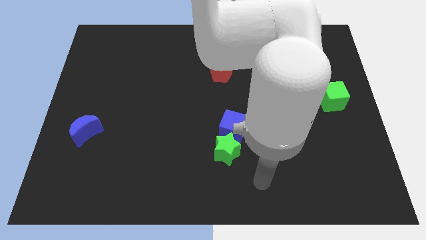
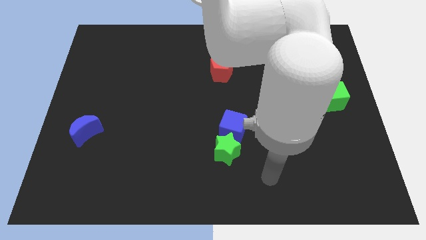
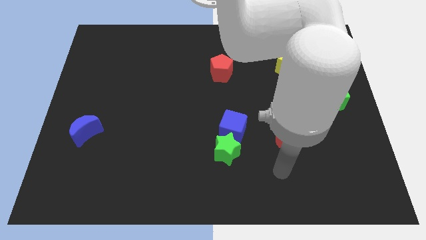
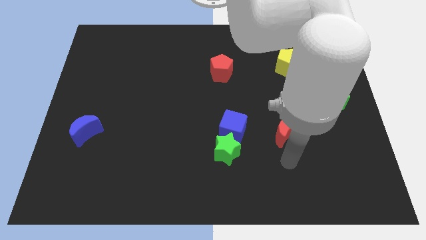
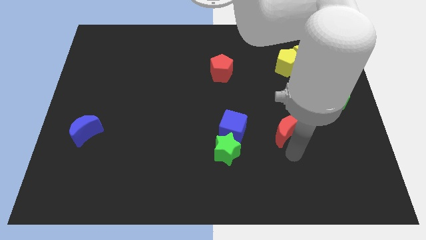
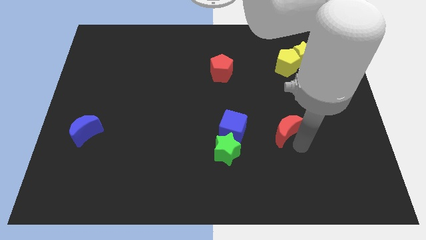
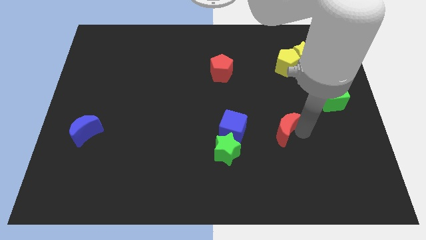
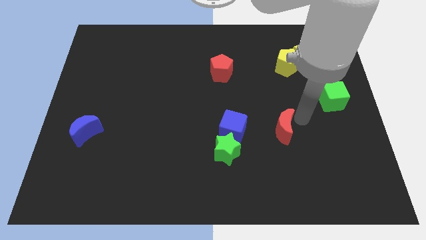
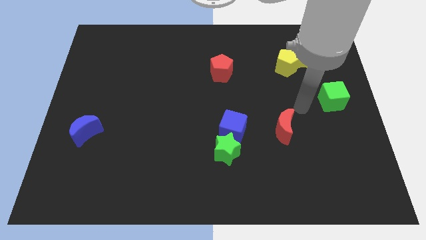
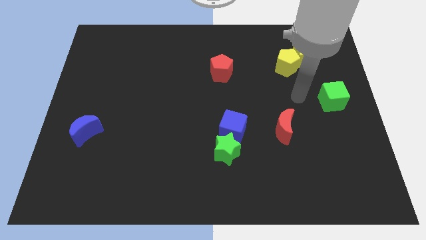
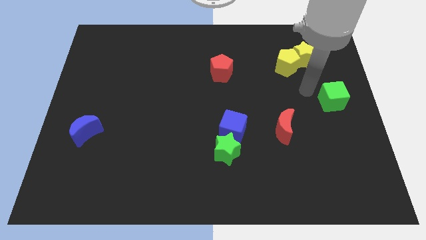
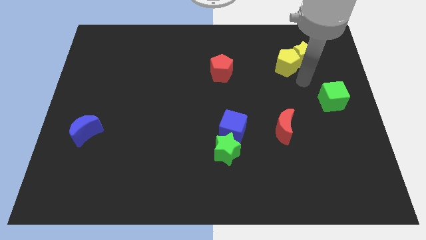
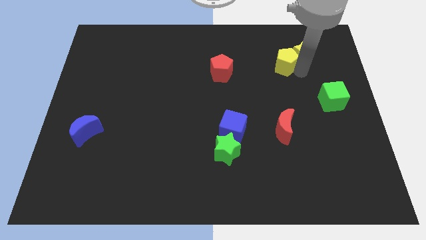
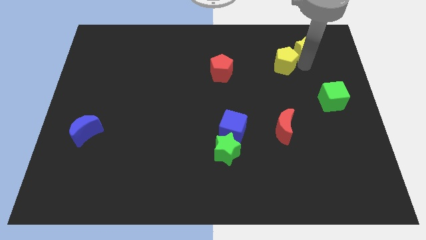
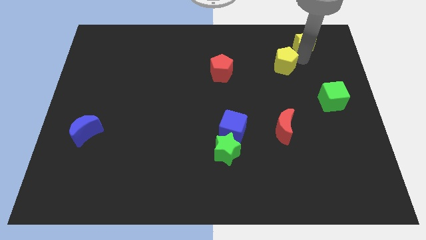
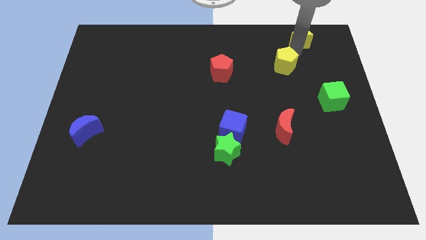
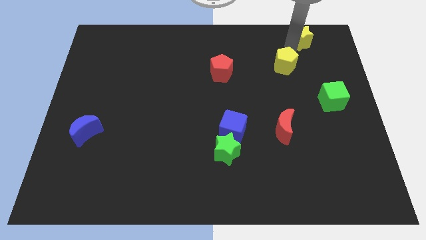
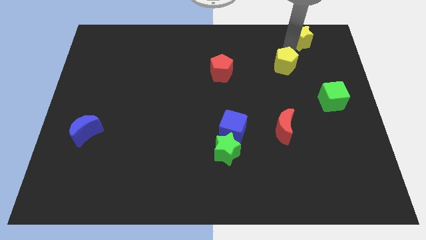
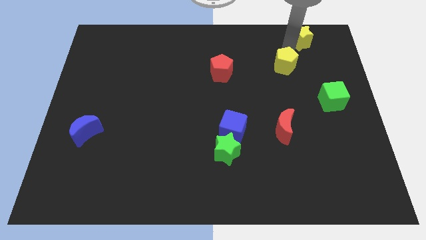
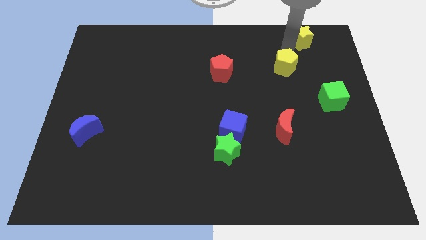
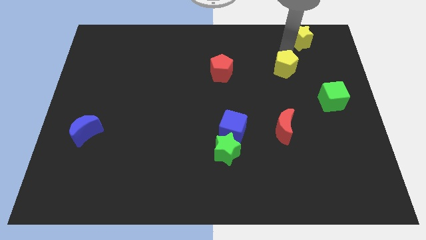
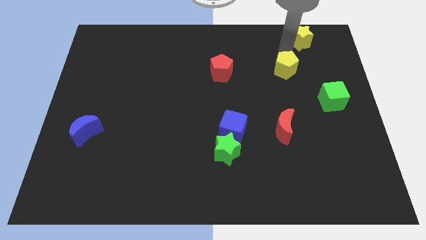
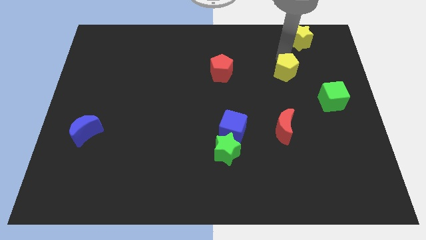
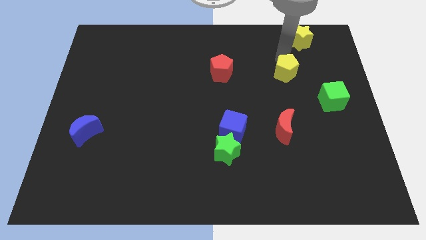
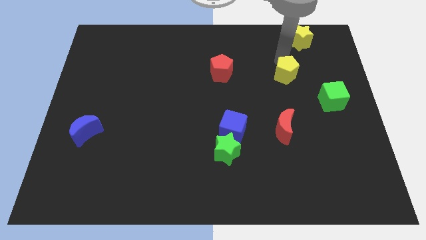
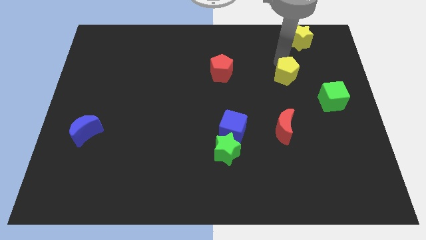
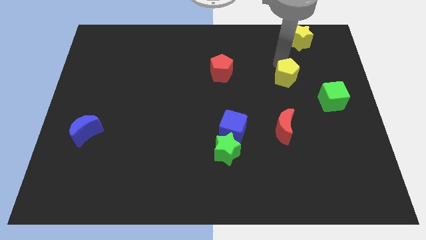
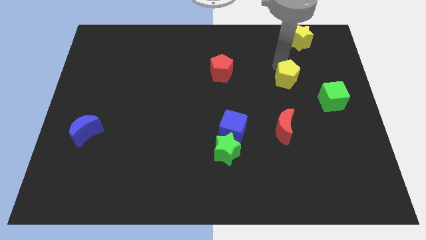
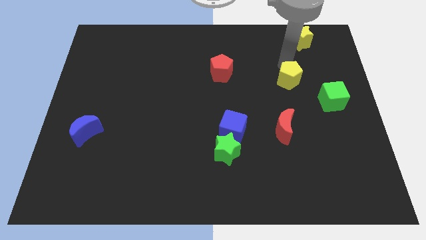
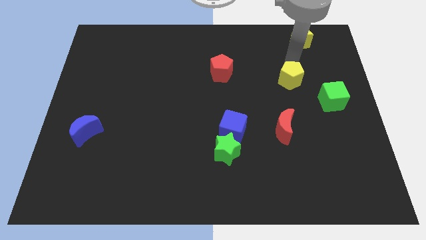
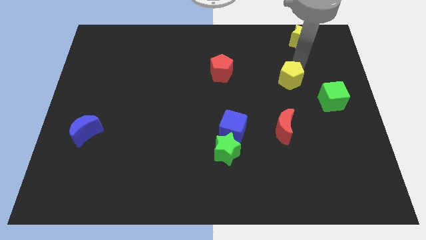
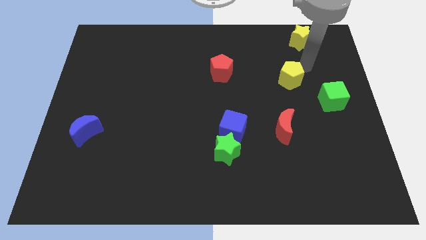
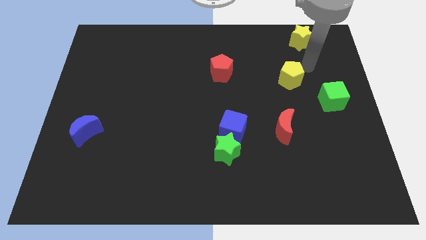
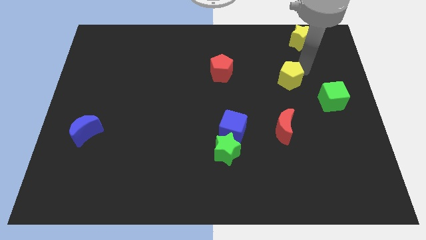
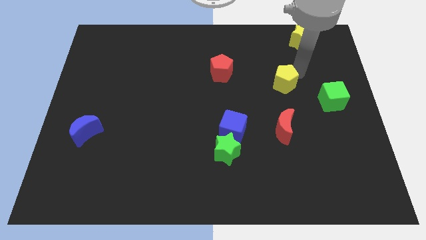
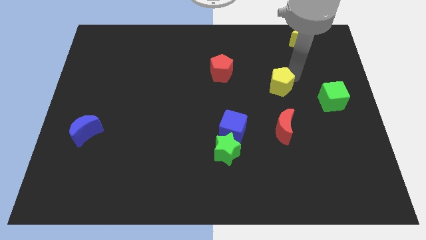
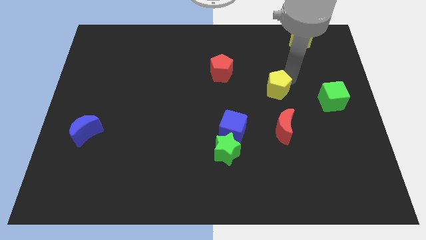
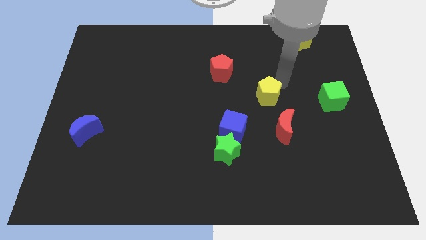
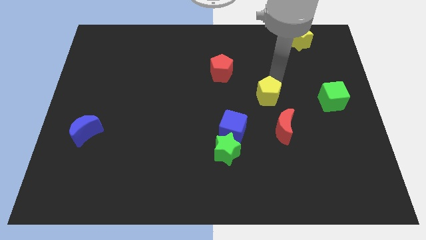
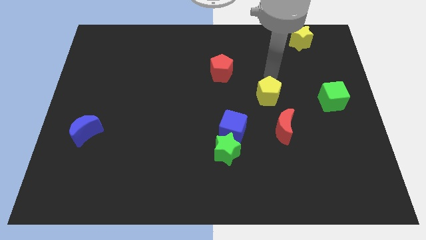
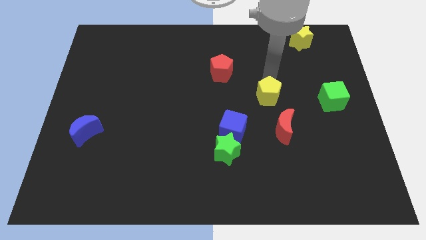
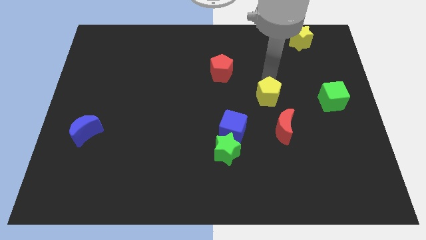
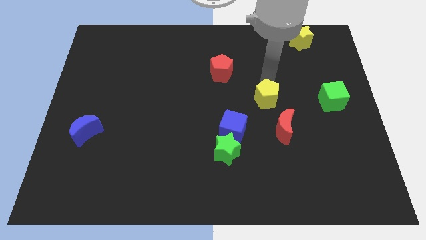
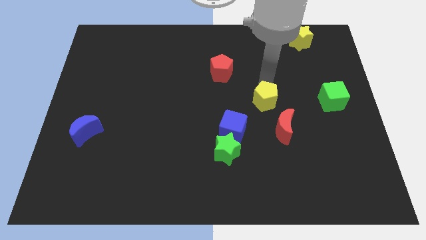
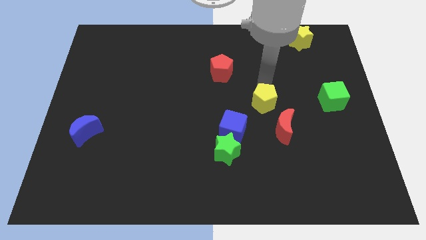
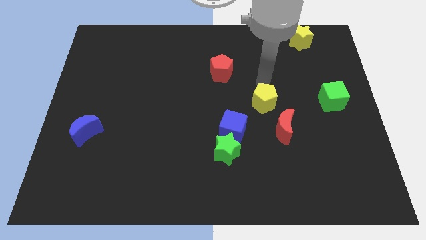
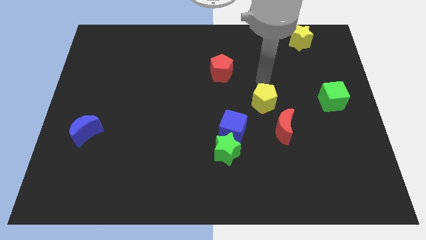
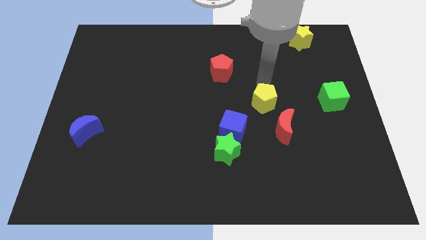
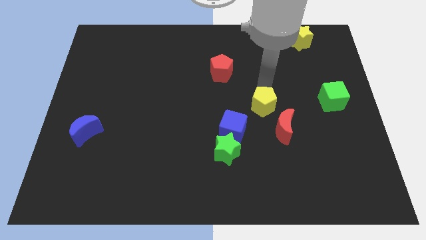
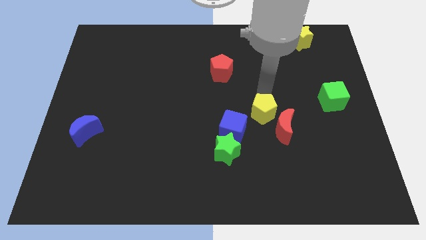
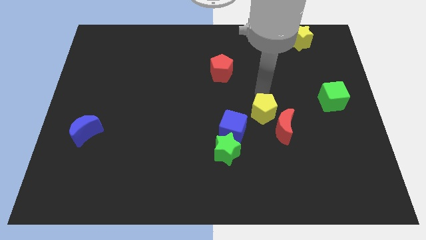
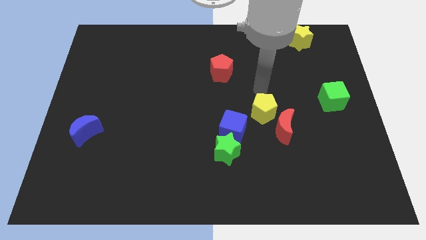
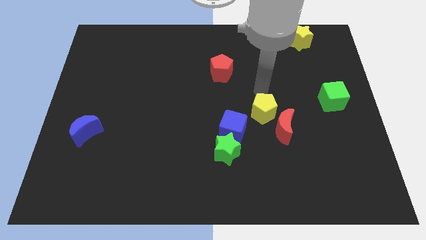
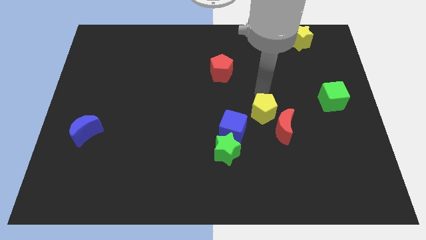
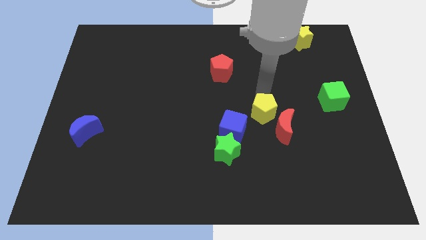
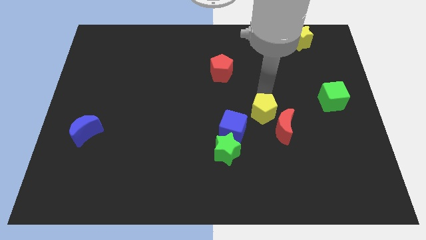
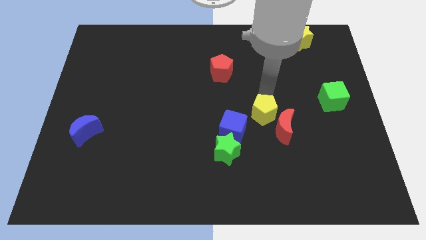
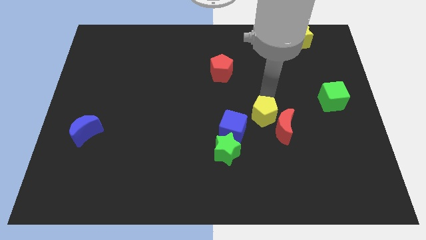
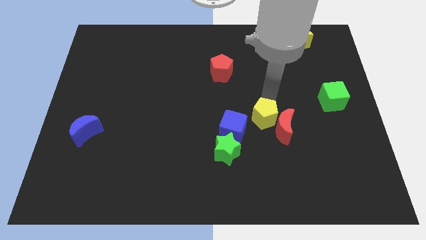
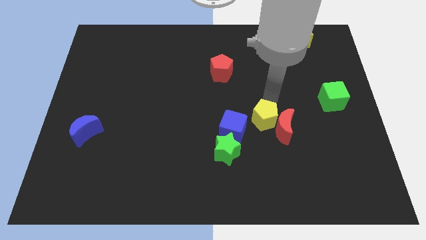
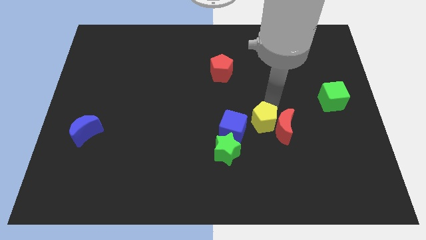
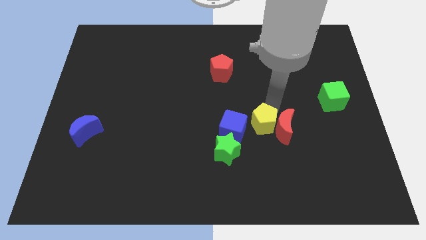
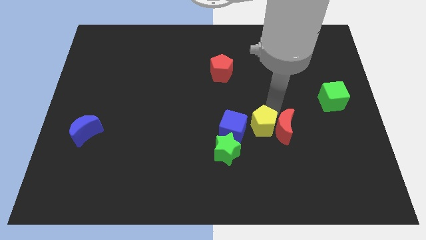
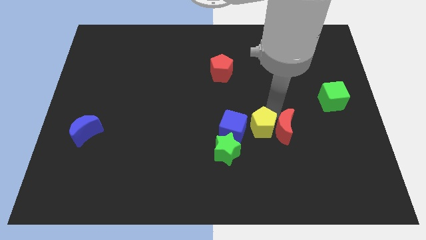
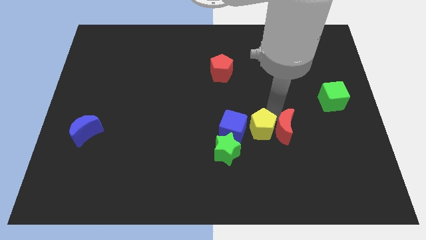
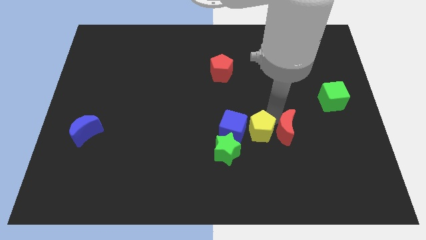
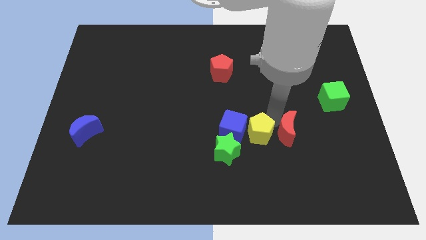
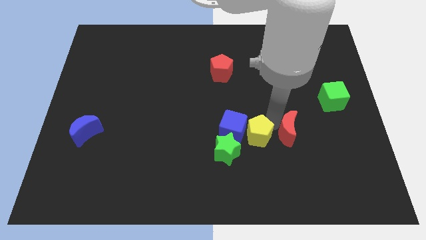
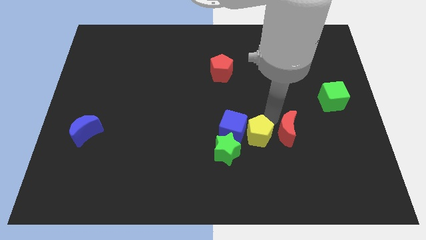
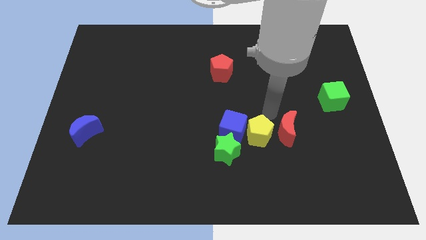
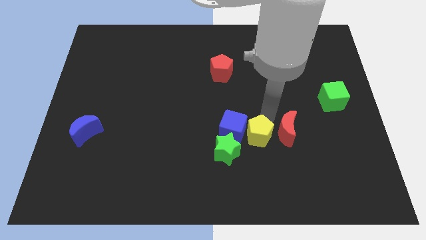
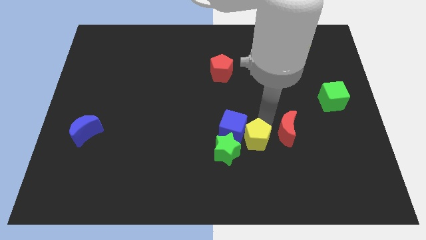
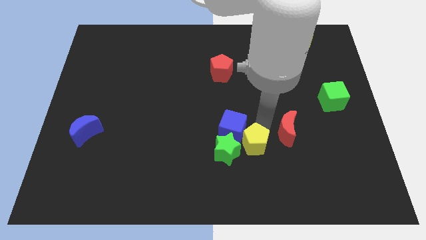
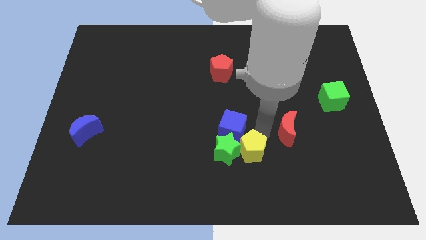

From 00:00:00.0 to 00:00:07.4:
push the yellow pentagon towards the green star
